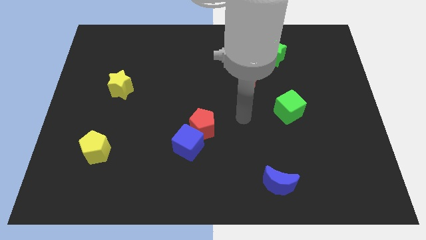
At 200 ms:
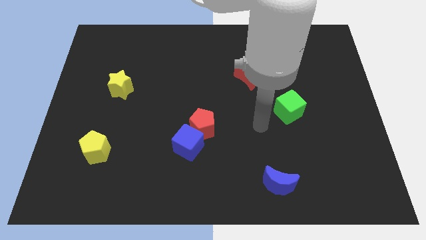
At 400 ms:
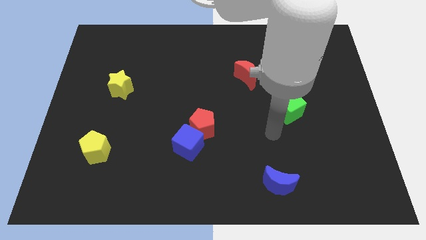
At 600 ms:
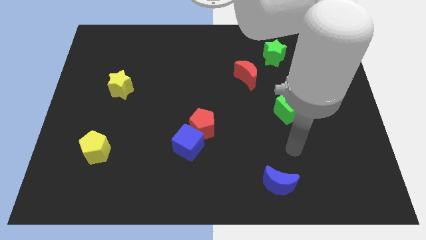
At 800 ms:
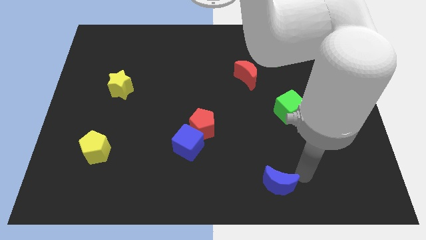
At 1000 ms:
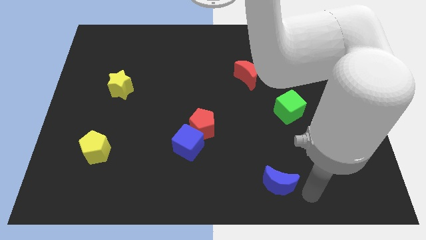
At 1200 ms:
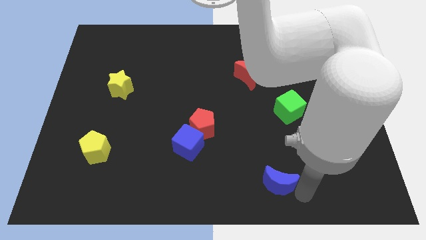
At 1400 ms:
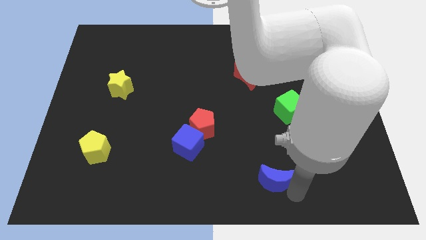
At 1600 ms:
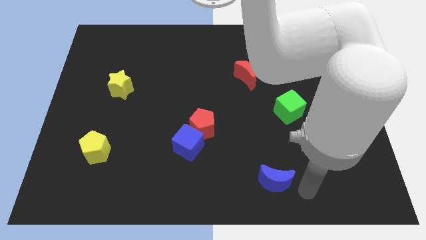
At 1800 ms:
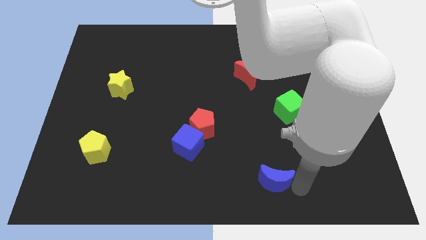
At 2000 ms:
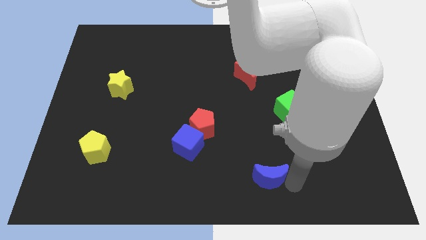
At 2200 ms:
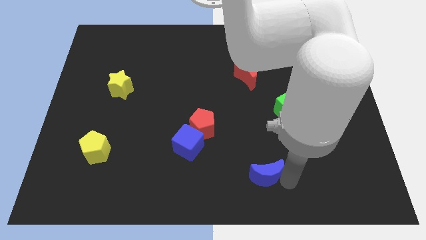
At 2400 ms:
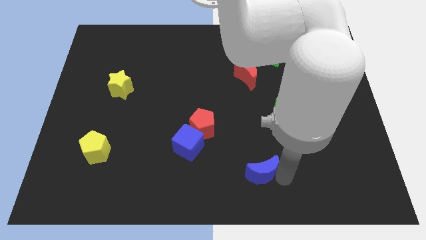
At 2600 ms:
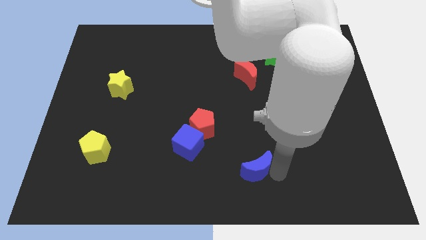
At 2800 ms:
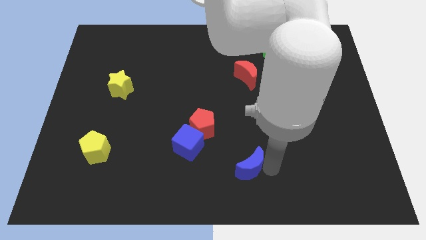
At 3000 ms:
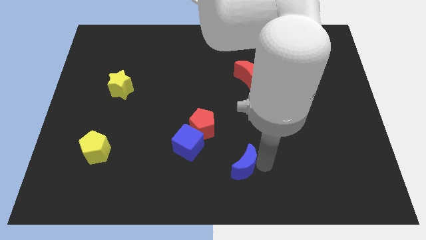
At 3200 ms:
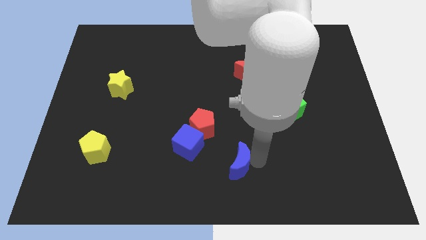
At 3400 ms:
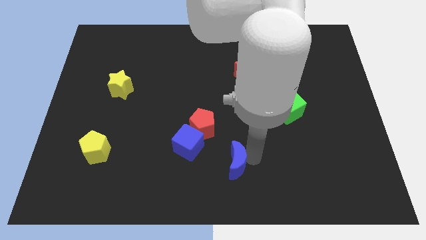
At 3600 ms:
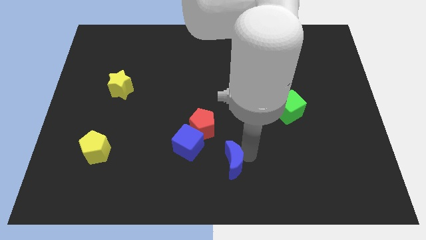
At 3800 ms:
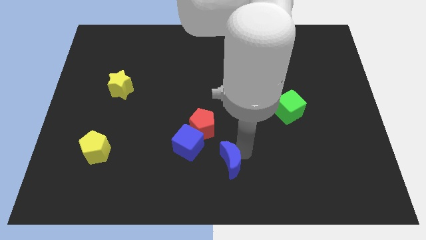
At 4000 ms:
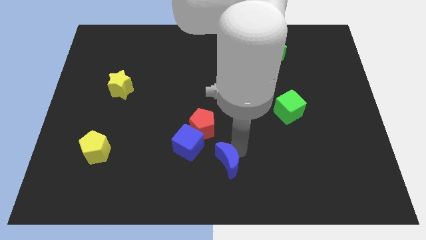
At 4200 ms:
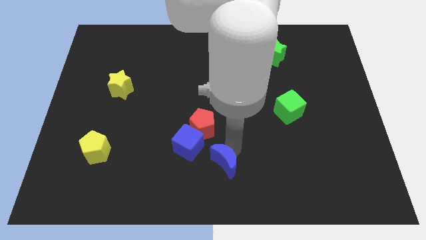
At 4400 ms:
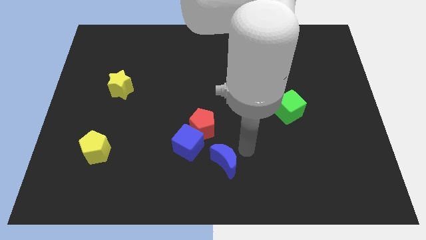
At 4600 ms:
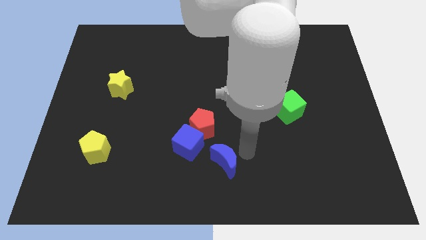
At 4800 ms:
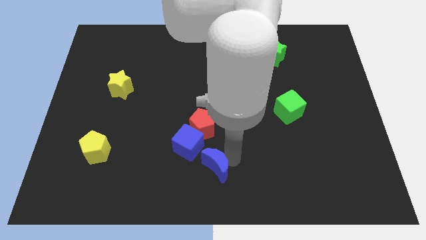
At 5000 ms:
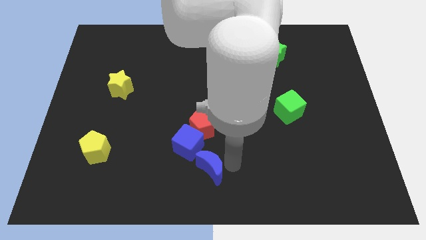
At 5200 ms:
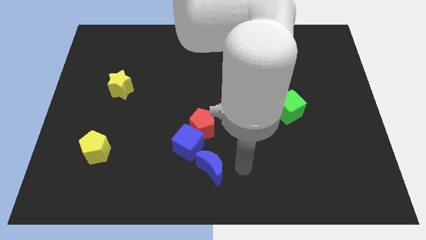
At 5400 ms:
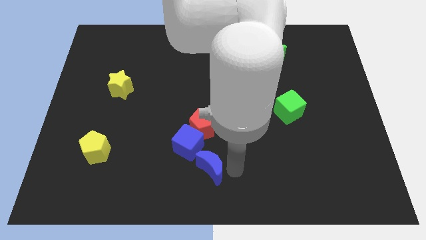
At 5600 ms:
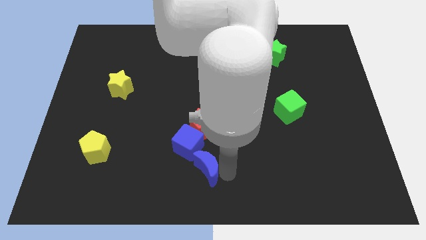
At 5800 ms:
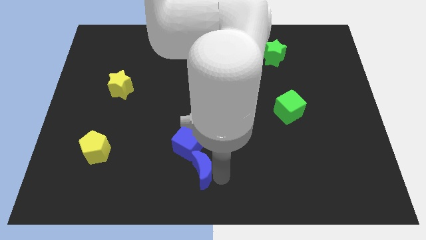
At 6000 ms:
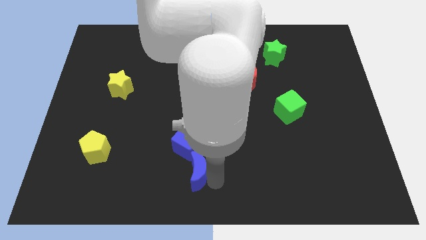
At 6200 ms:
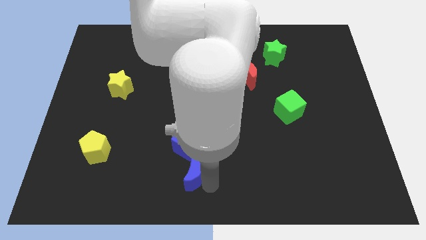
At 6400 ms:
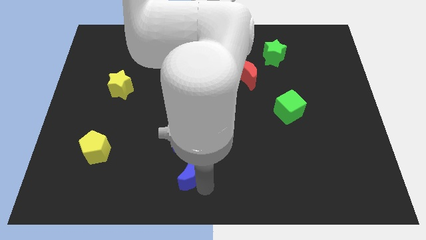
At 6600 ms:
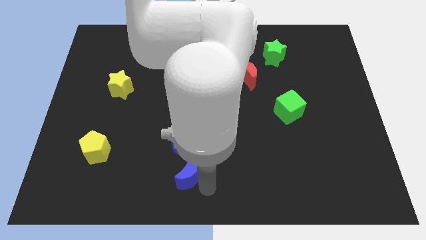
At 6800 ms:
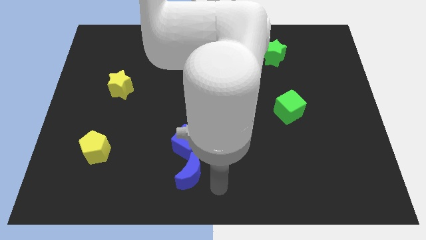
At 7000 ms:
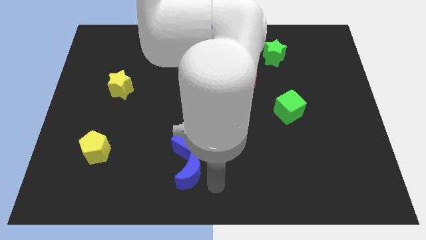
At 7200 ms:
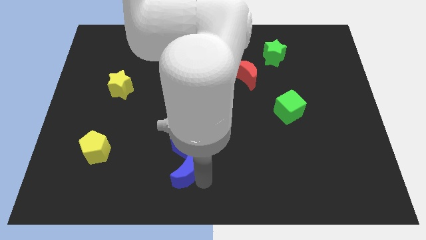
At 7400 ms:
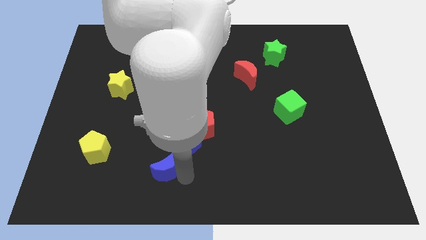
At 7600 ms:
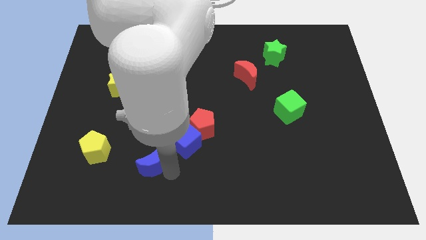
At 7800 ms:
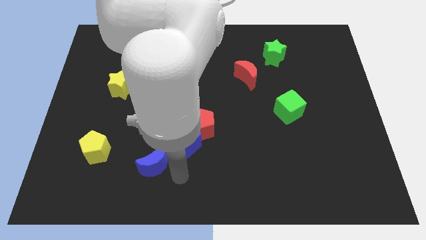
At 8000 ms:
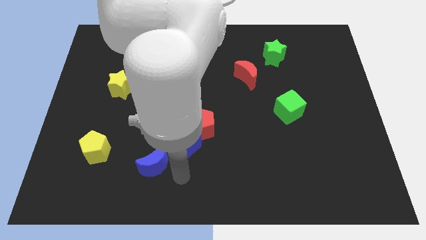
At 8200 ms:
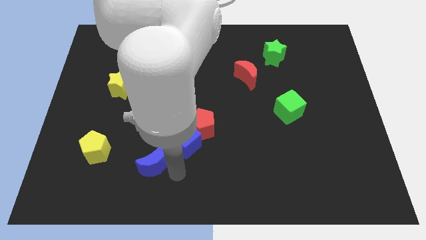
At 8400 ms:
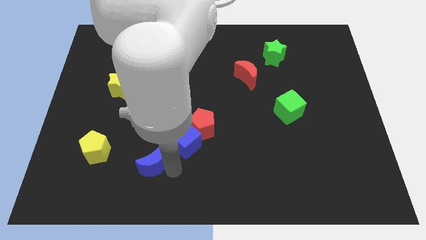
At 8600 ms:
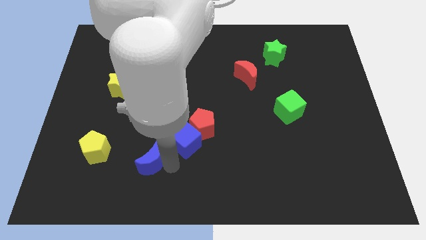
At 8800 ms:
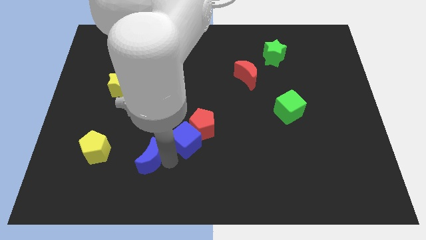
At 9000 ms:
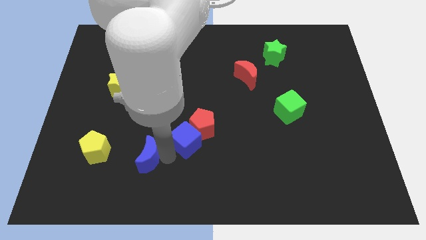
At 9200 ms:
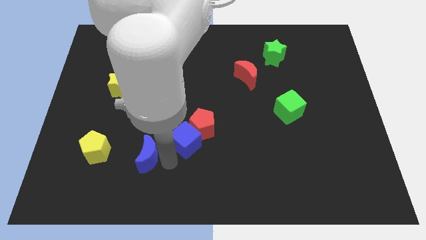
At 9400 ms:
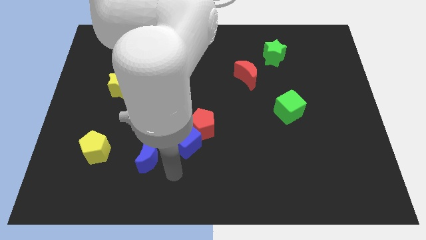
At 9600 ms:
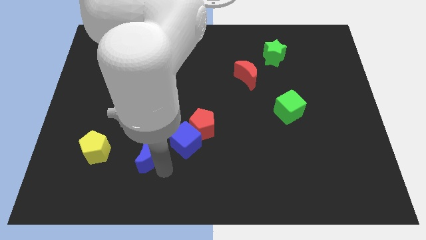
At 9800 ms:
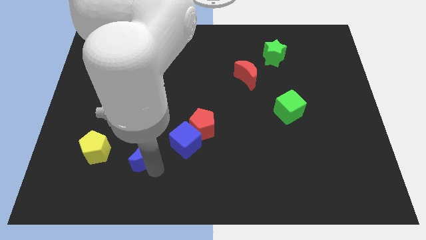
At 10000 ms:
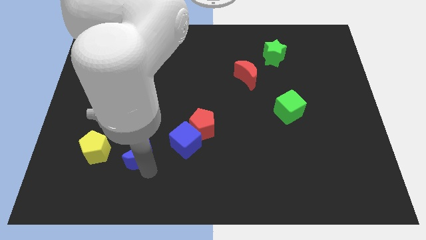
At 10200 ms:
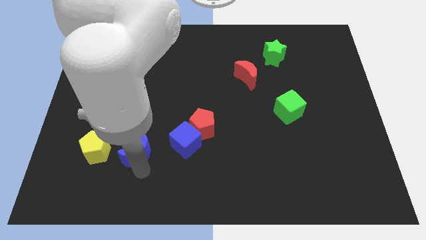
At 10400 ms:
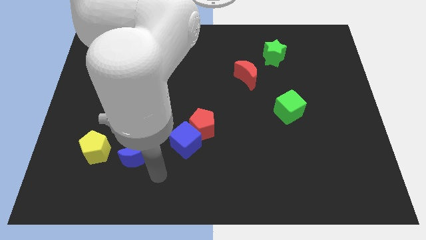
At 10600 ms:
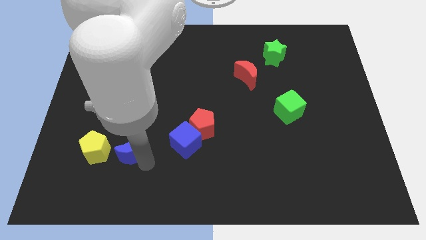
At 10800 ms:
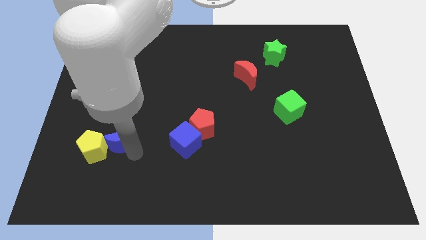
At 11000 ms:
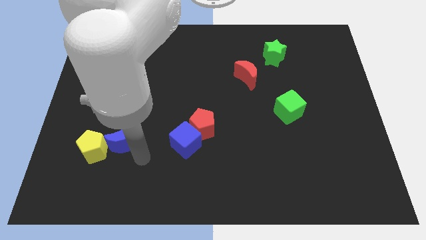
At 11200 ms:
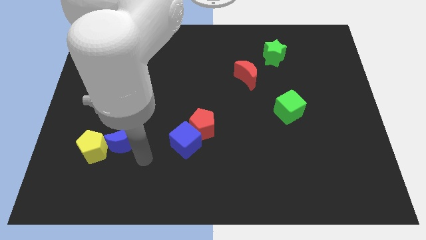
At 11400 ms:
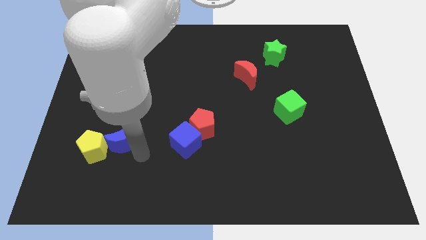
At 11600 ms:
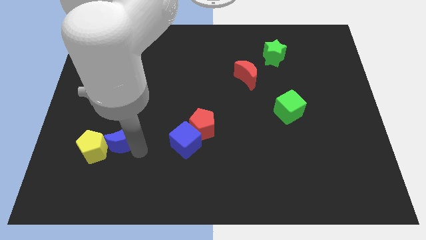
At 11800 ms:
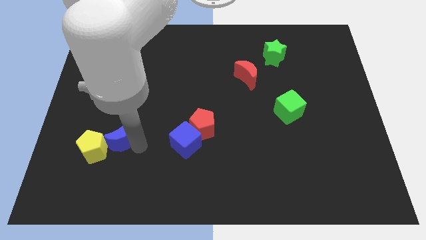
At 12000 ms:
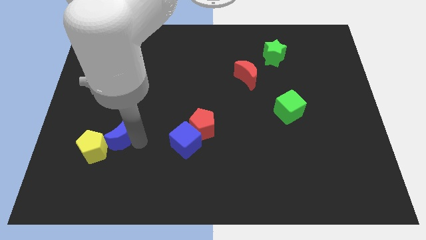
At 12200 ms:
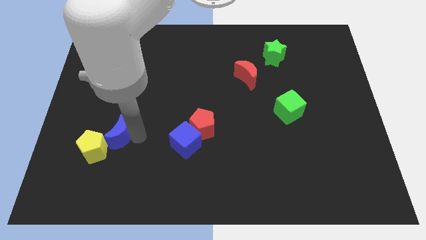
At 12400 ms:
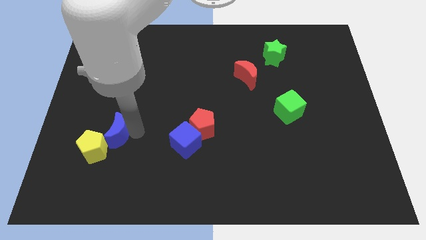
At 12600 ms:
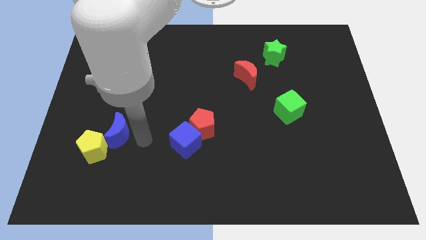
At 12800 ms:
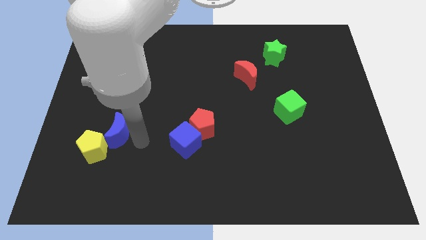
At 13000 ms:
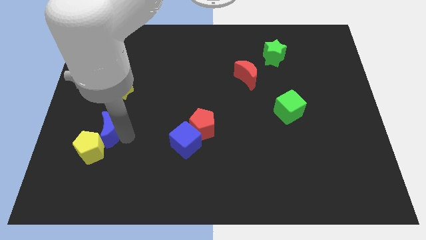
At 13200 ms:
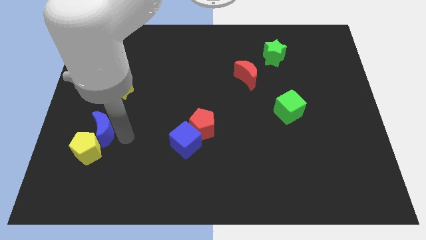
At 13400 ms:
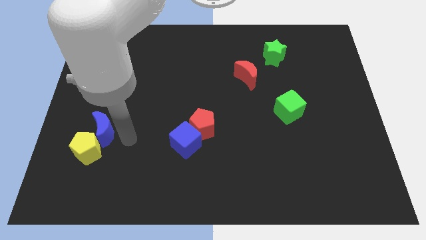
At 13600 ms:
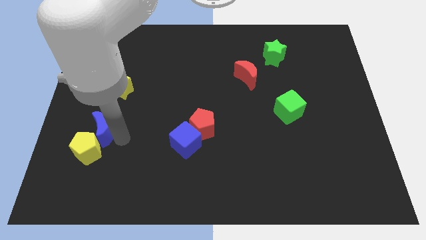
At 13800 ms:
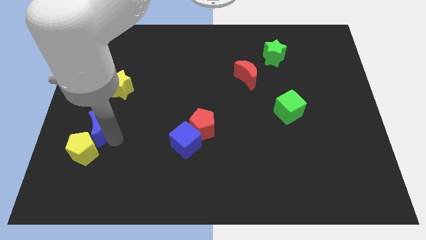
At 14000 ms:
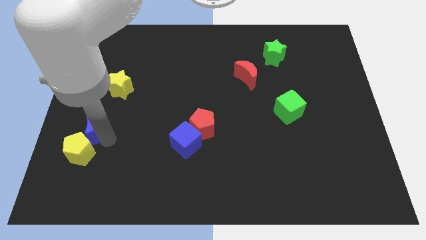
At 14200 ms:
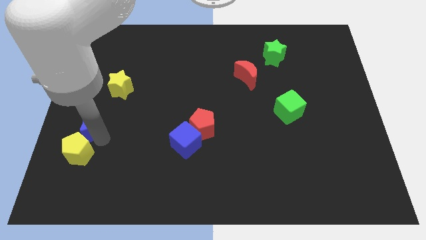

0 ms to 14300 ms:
push the blue moon to the left side of the board
